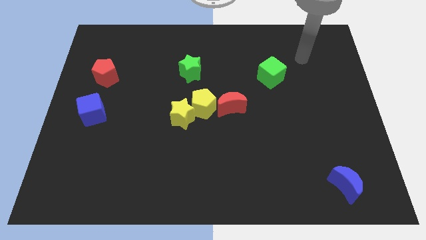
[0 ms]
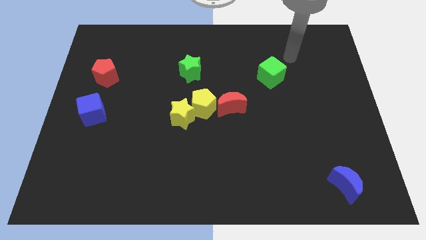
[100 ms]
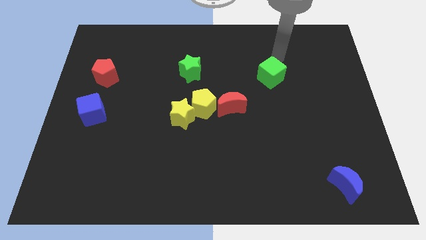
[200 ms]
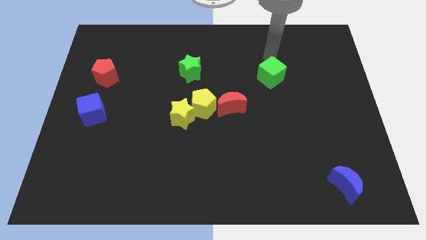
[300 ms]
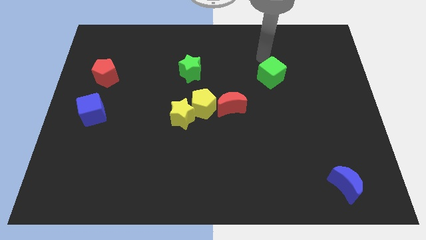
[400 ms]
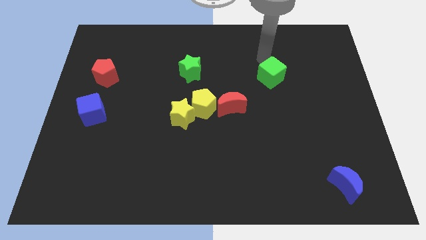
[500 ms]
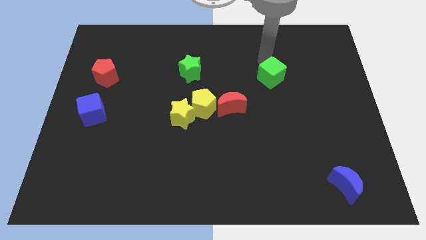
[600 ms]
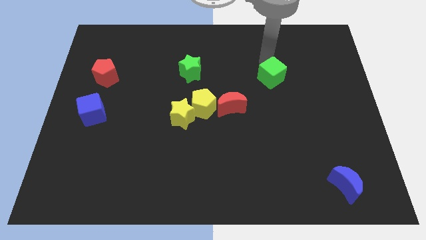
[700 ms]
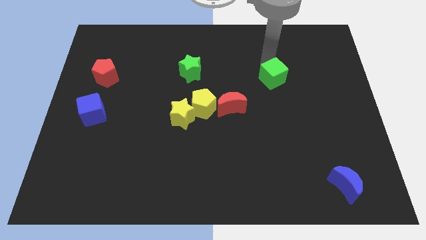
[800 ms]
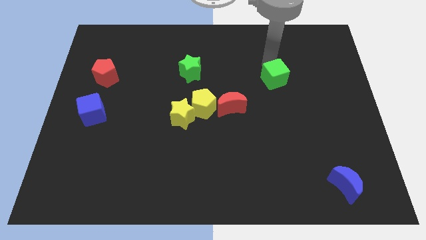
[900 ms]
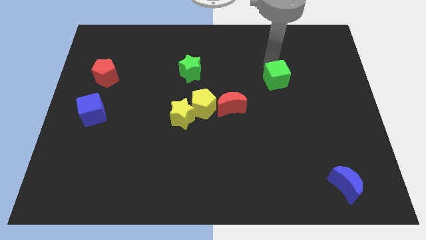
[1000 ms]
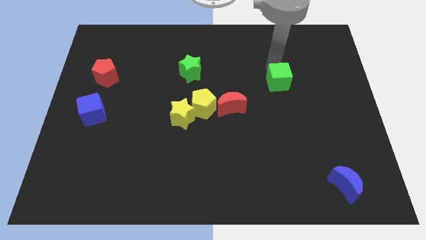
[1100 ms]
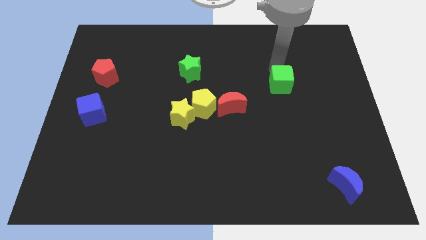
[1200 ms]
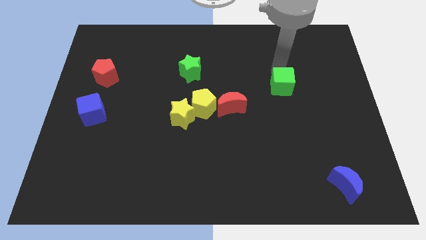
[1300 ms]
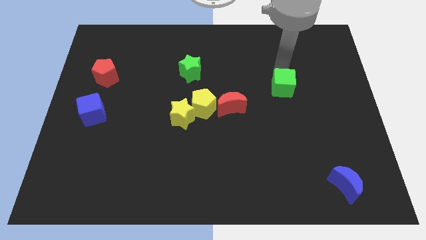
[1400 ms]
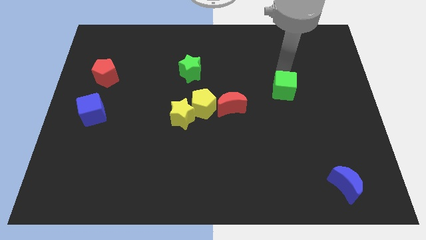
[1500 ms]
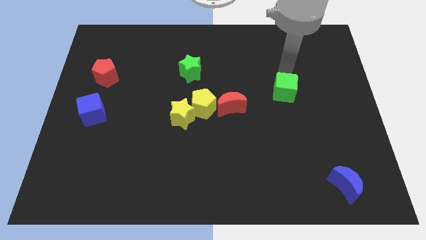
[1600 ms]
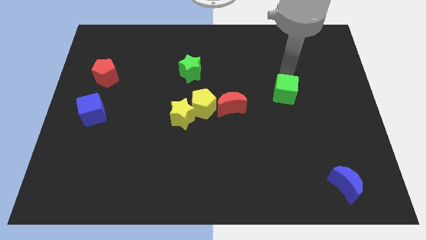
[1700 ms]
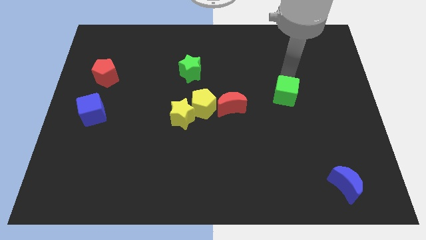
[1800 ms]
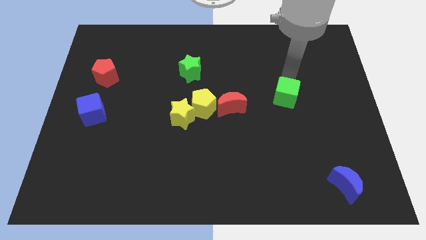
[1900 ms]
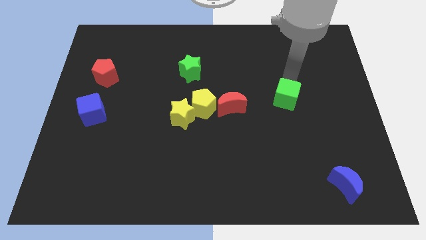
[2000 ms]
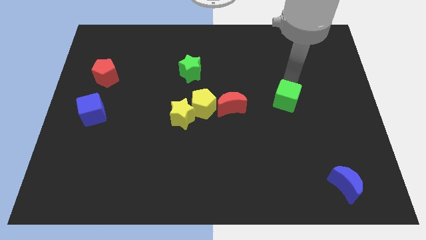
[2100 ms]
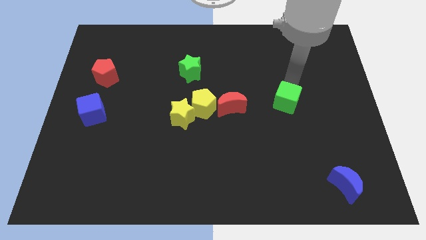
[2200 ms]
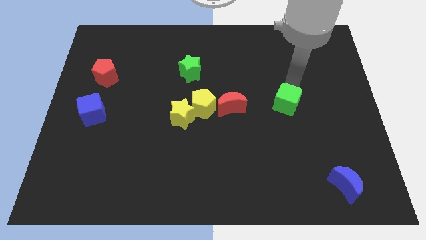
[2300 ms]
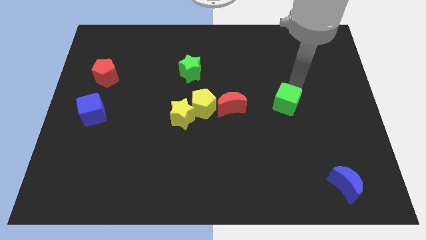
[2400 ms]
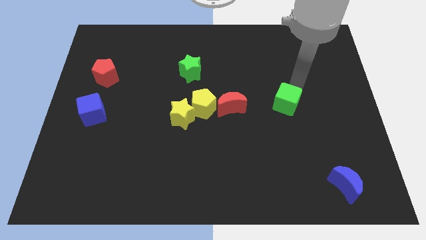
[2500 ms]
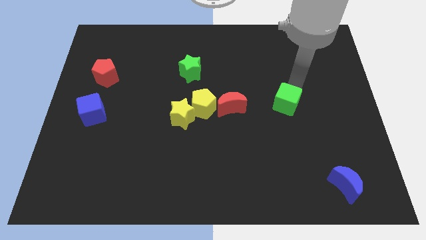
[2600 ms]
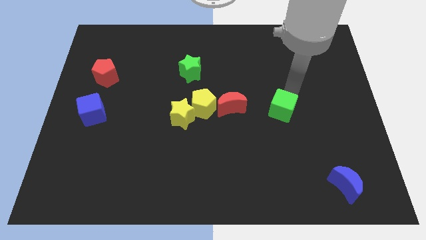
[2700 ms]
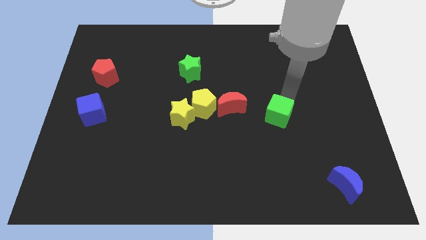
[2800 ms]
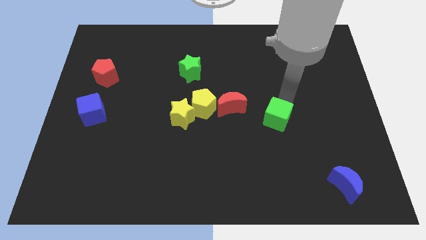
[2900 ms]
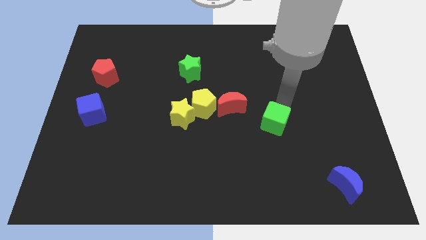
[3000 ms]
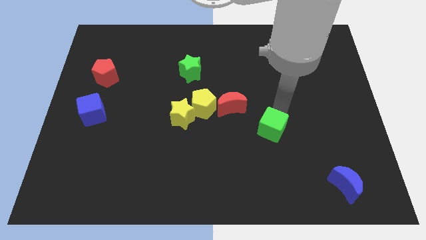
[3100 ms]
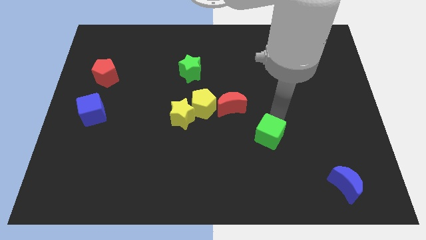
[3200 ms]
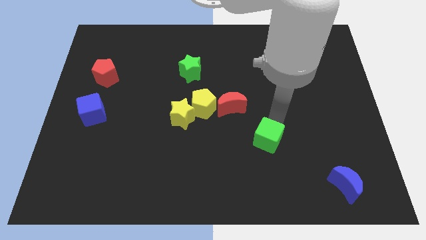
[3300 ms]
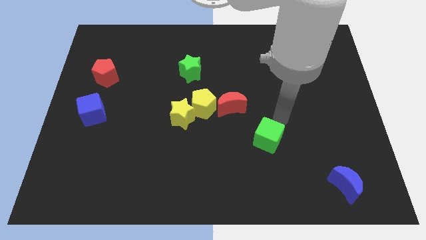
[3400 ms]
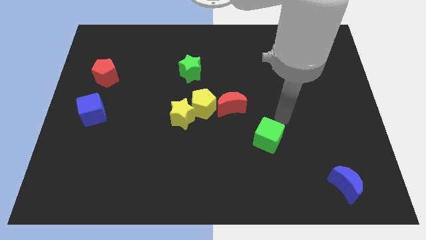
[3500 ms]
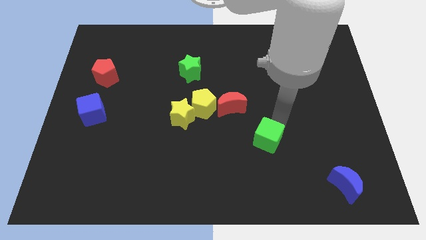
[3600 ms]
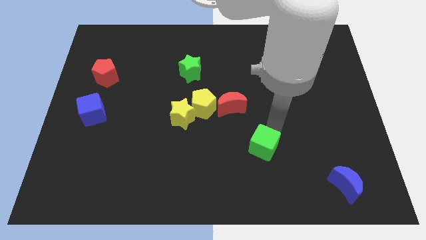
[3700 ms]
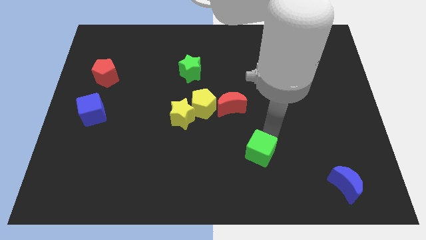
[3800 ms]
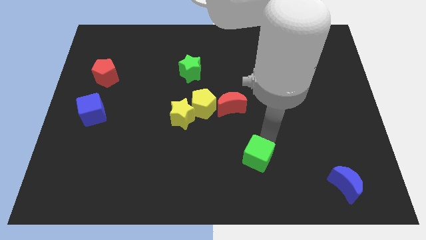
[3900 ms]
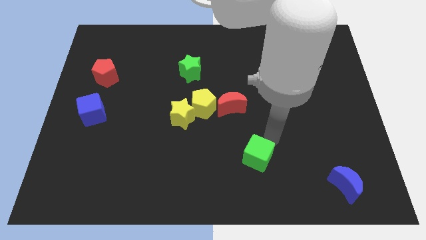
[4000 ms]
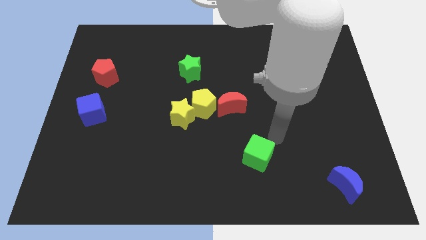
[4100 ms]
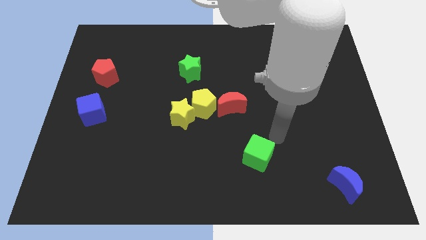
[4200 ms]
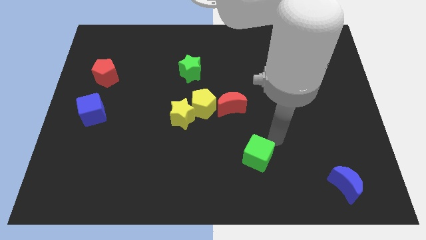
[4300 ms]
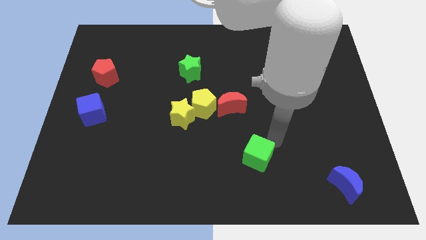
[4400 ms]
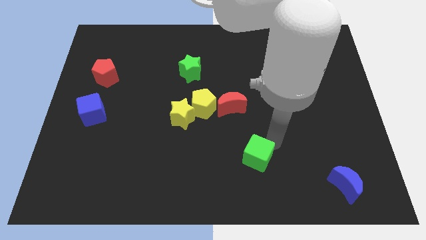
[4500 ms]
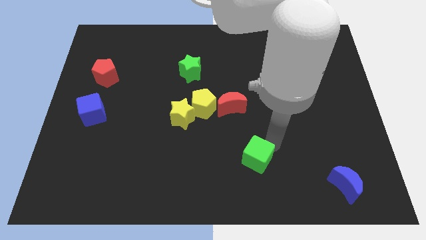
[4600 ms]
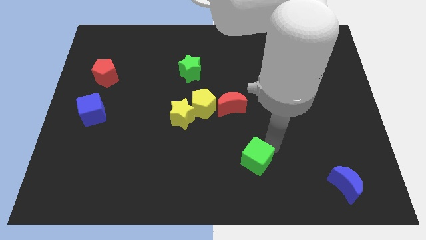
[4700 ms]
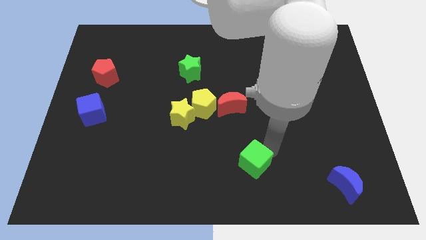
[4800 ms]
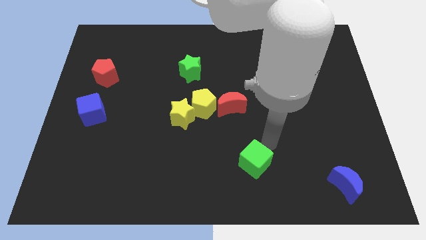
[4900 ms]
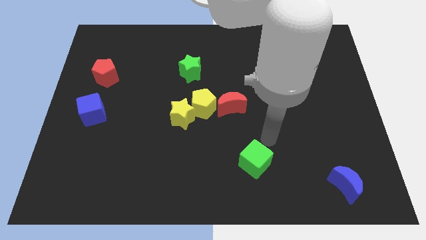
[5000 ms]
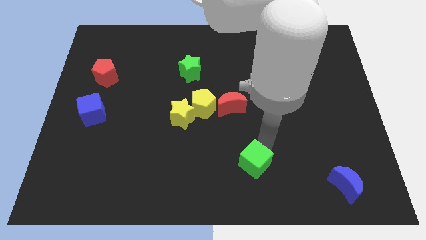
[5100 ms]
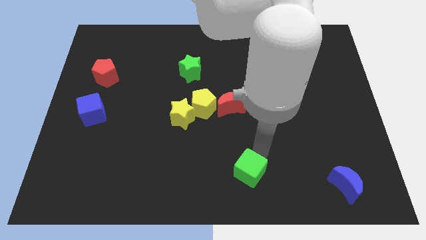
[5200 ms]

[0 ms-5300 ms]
push the green cube to the bottom

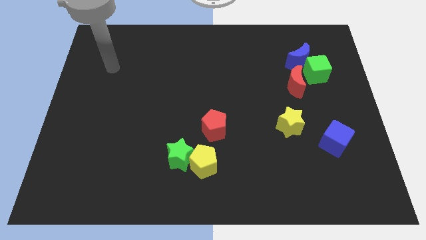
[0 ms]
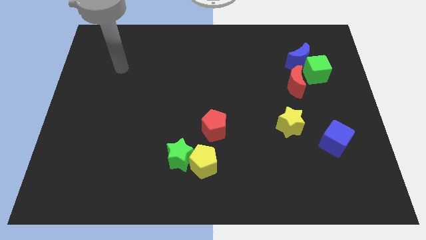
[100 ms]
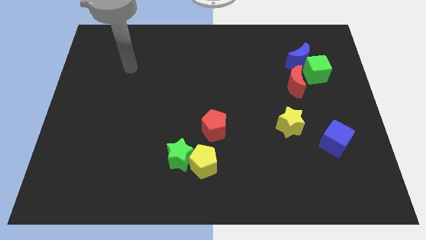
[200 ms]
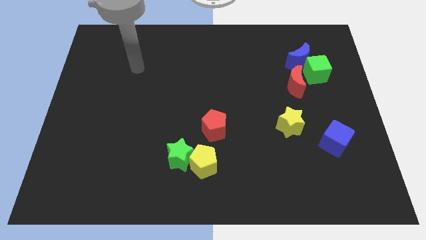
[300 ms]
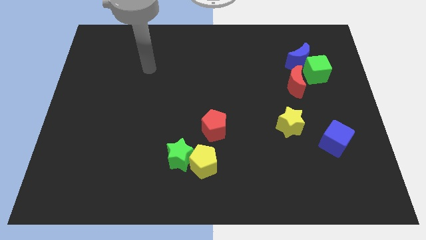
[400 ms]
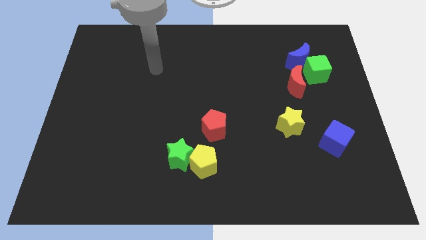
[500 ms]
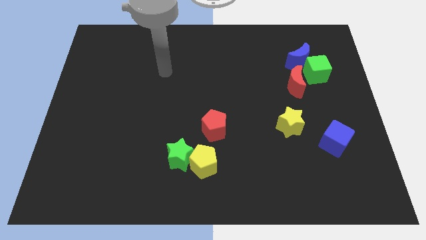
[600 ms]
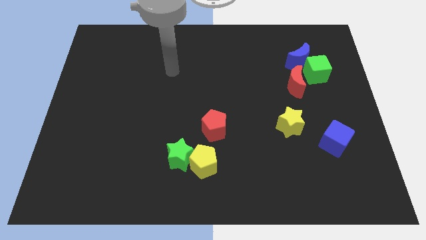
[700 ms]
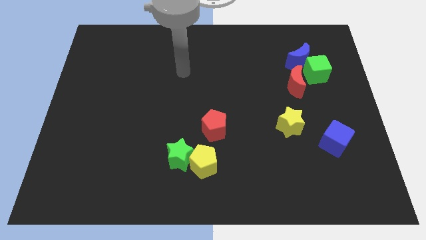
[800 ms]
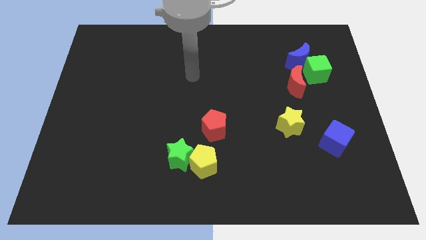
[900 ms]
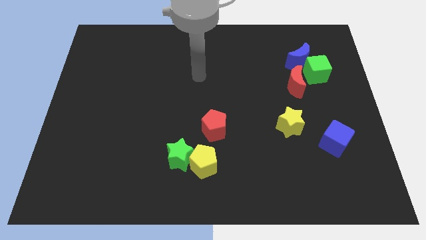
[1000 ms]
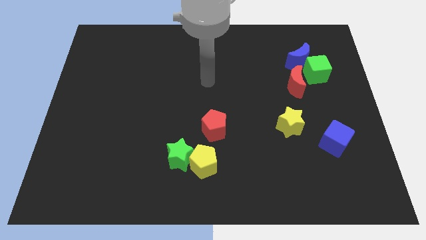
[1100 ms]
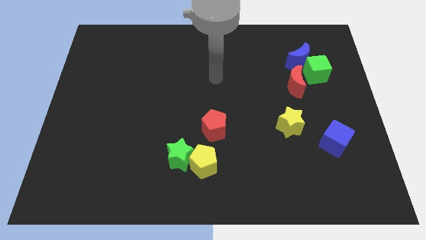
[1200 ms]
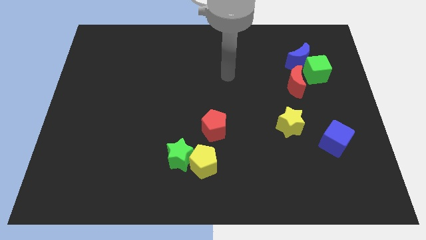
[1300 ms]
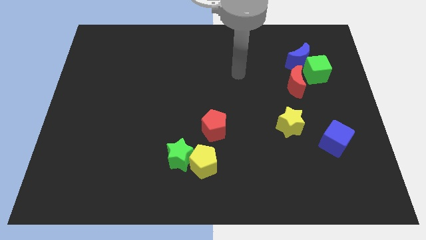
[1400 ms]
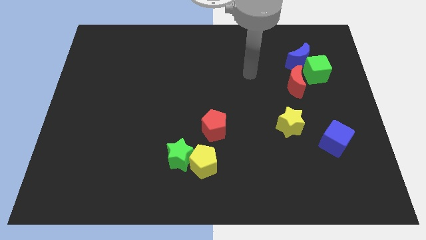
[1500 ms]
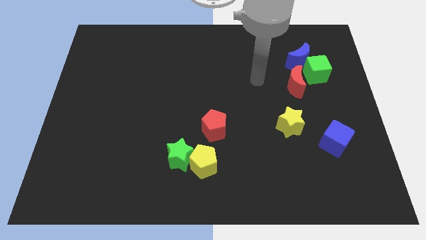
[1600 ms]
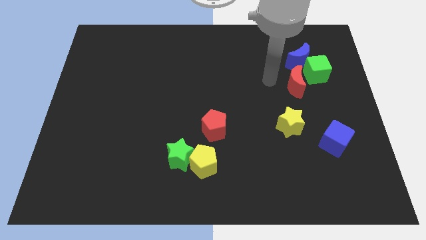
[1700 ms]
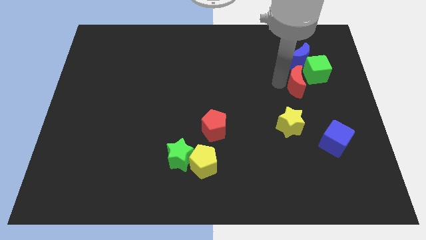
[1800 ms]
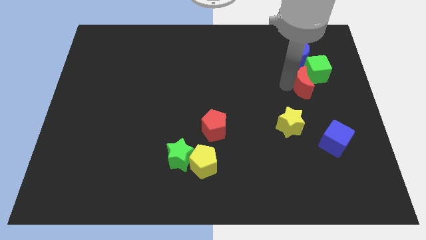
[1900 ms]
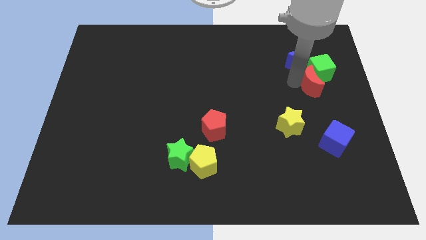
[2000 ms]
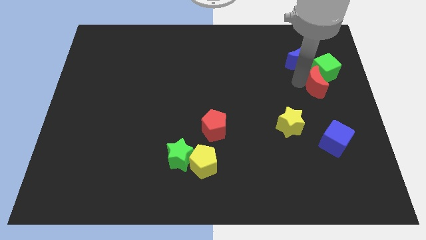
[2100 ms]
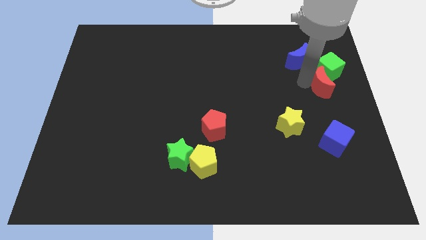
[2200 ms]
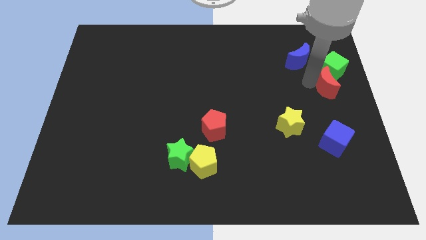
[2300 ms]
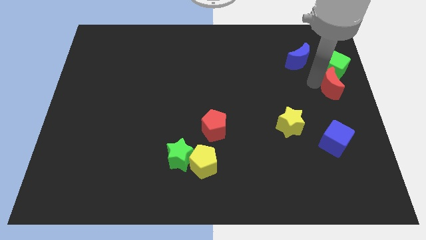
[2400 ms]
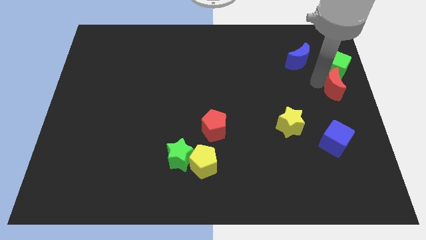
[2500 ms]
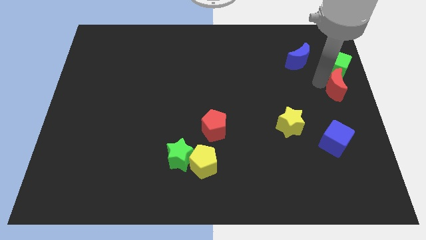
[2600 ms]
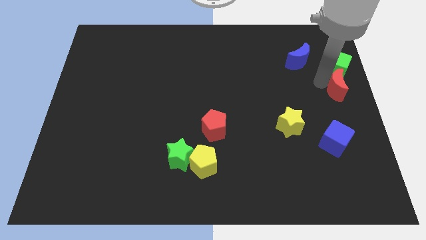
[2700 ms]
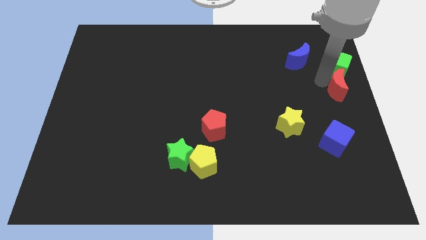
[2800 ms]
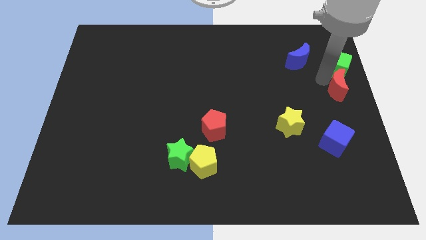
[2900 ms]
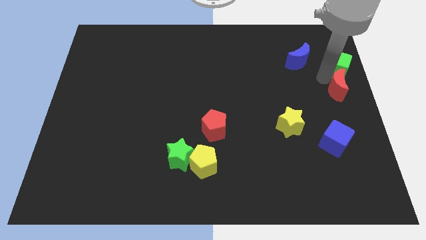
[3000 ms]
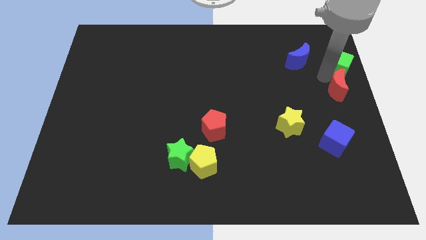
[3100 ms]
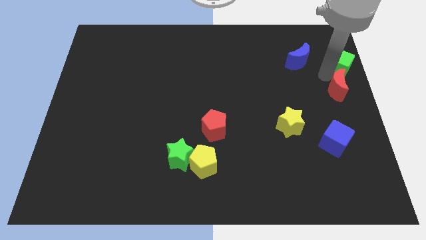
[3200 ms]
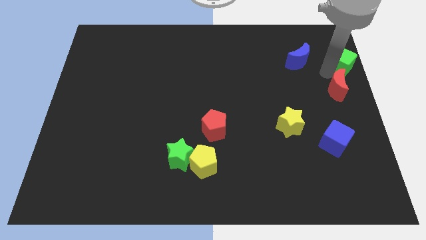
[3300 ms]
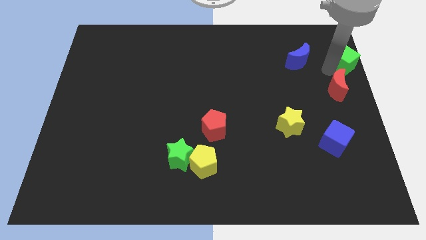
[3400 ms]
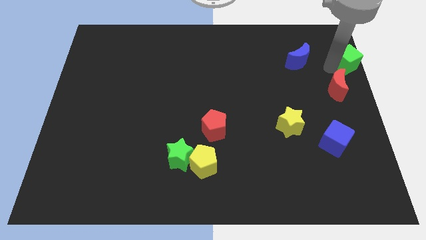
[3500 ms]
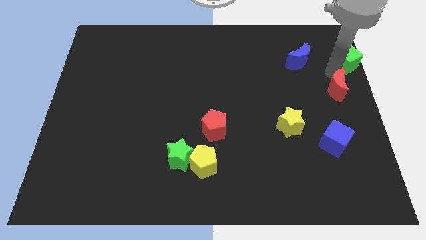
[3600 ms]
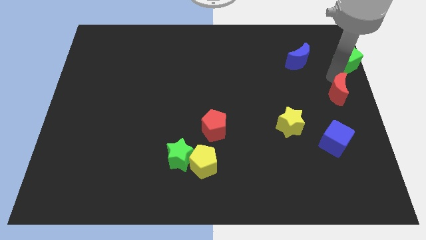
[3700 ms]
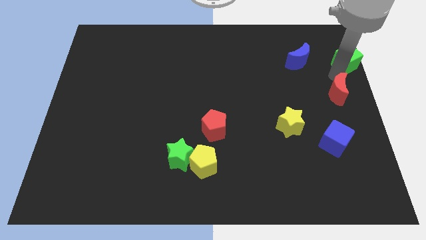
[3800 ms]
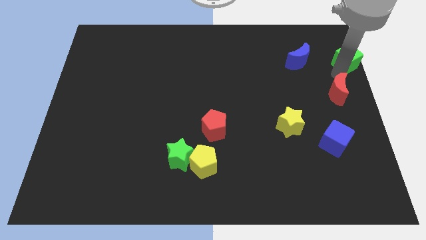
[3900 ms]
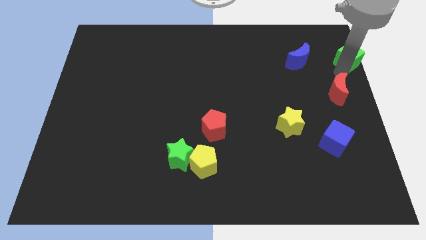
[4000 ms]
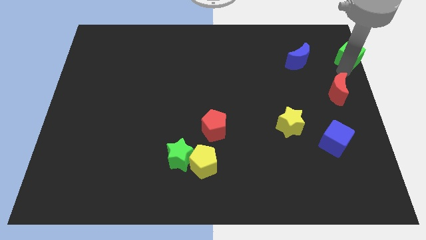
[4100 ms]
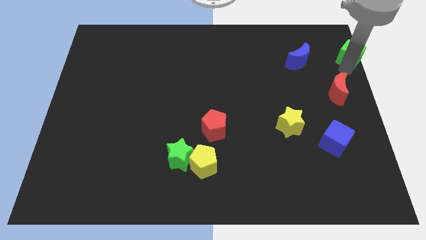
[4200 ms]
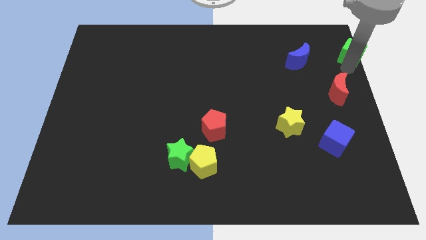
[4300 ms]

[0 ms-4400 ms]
move the green cube to the top right
